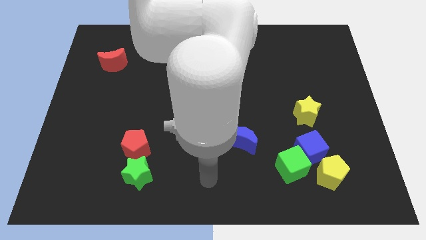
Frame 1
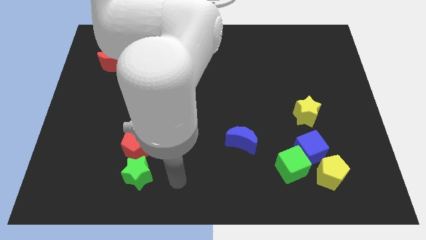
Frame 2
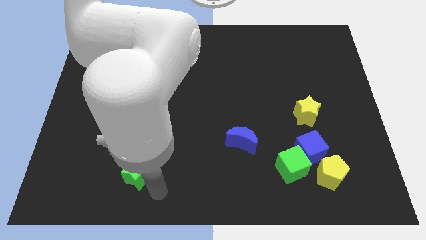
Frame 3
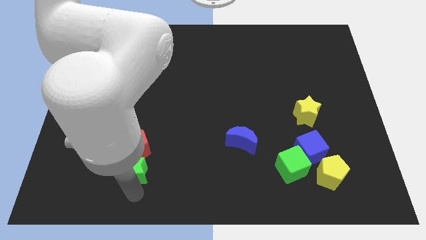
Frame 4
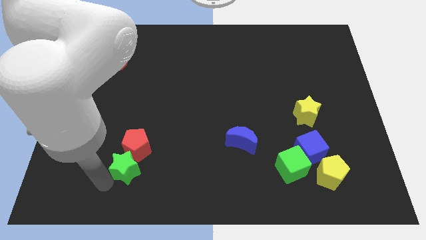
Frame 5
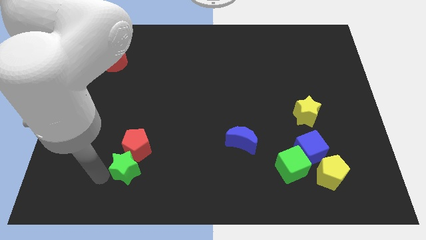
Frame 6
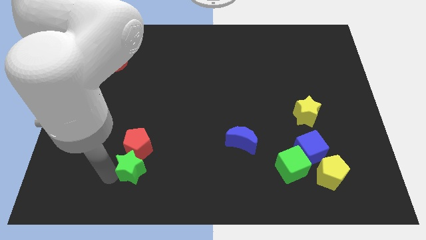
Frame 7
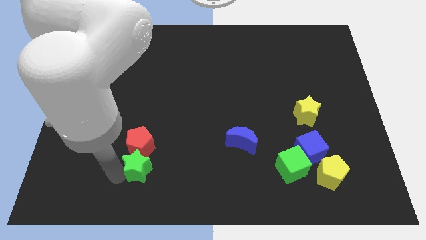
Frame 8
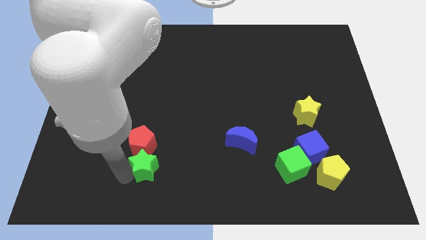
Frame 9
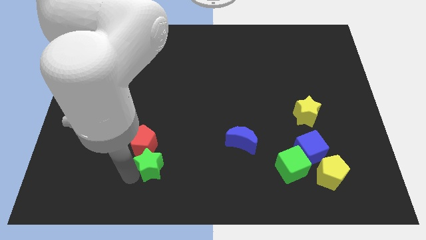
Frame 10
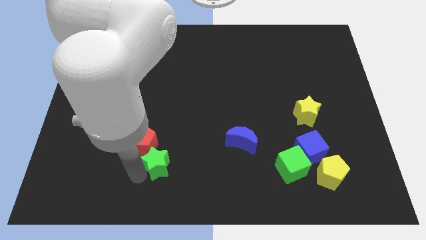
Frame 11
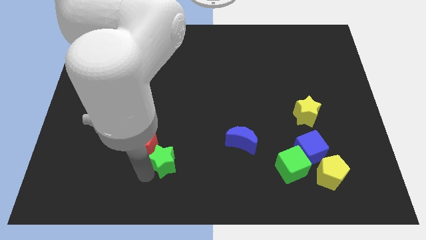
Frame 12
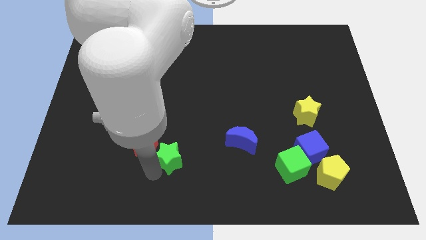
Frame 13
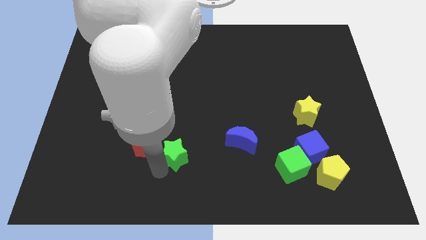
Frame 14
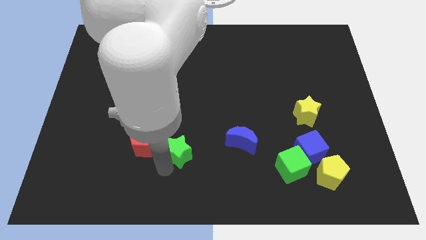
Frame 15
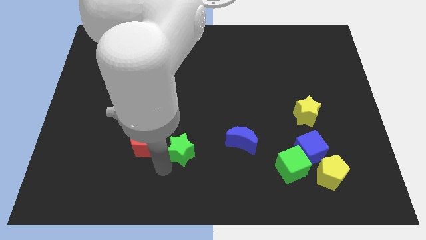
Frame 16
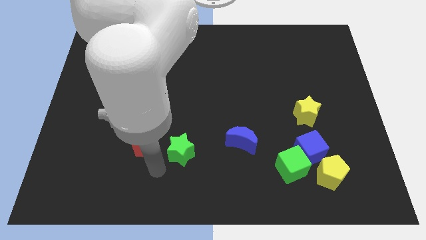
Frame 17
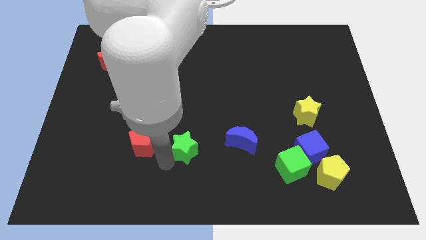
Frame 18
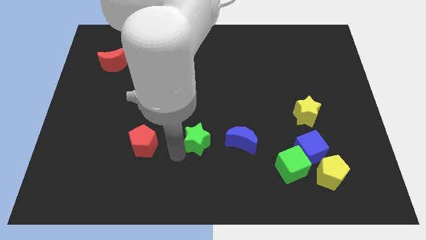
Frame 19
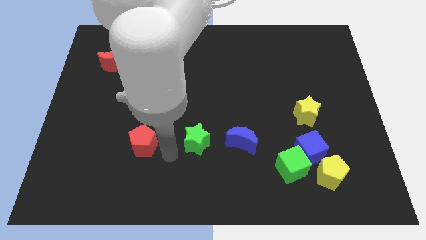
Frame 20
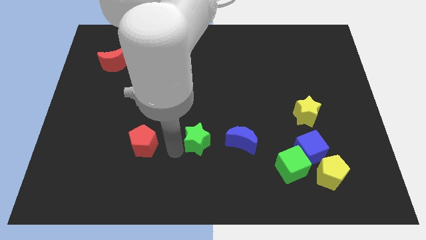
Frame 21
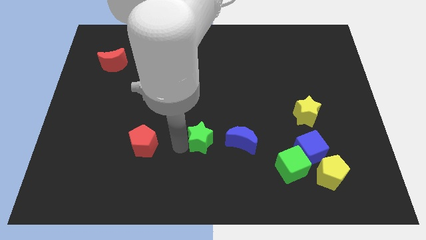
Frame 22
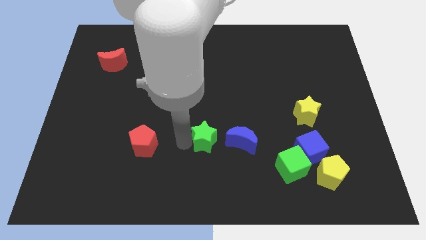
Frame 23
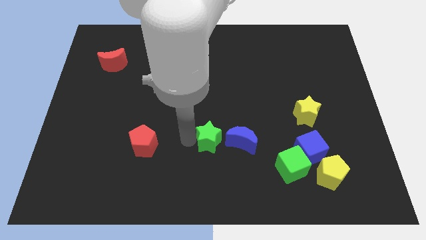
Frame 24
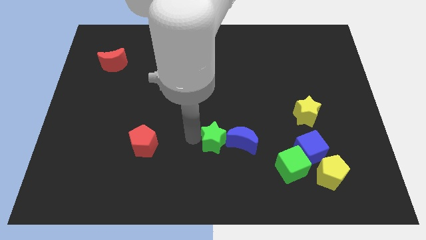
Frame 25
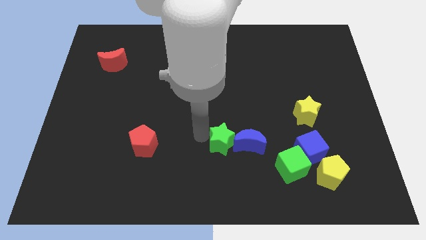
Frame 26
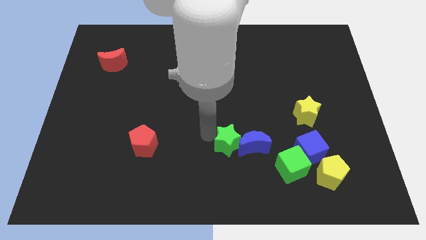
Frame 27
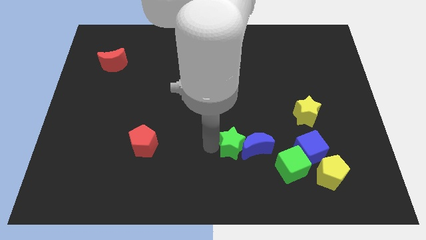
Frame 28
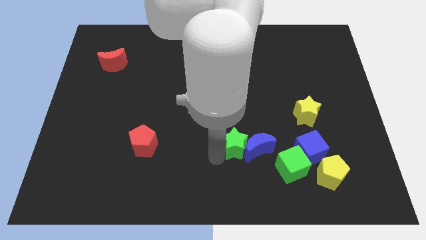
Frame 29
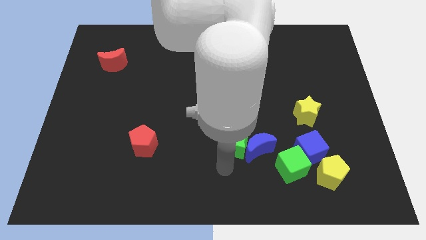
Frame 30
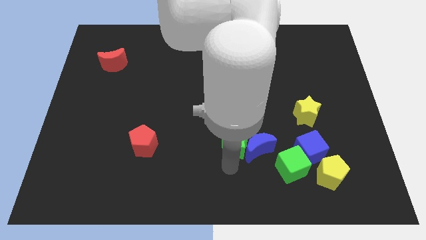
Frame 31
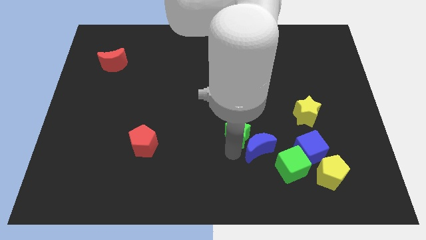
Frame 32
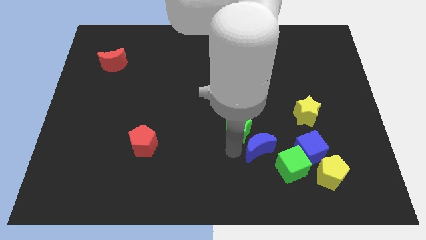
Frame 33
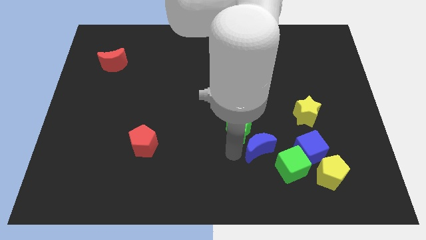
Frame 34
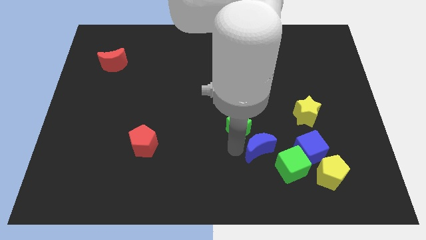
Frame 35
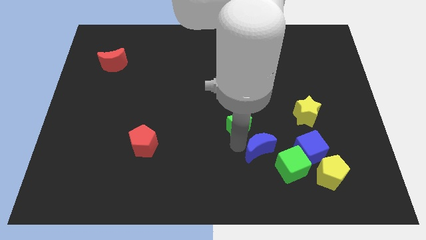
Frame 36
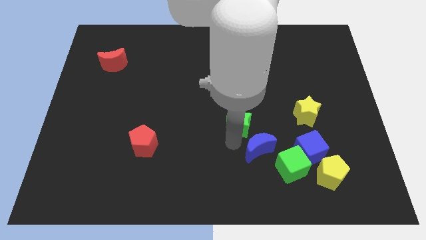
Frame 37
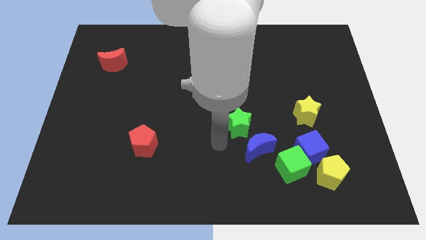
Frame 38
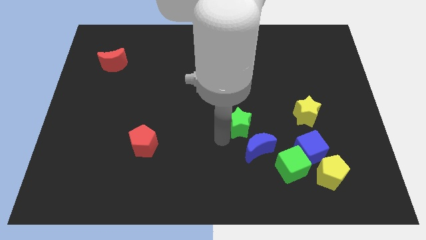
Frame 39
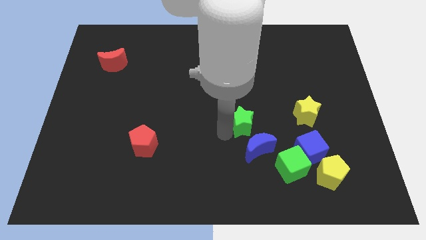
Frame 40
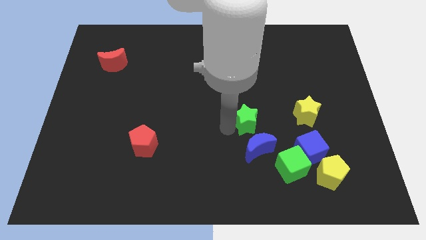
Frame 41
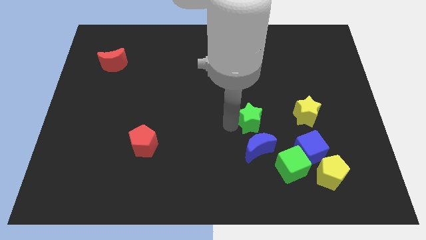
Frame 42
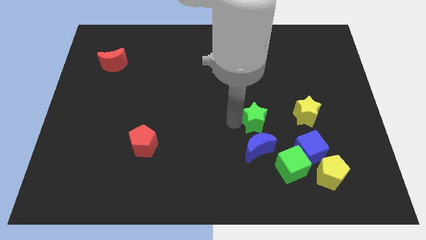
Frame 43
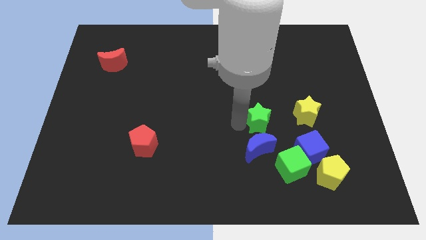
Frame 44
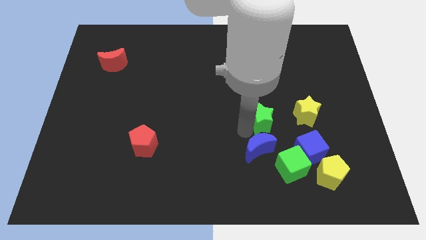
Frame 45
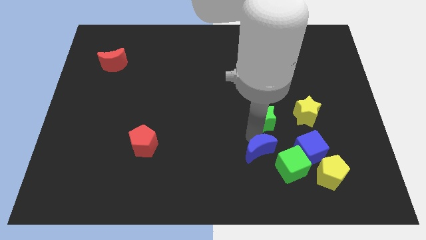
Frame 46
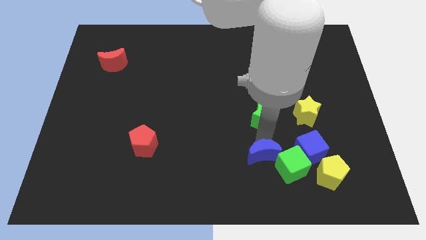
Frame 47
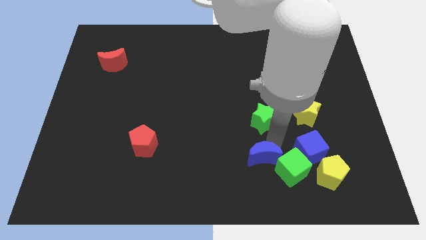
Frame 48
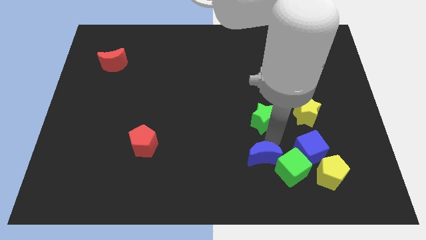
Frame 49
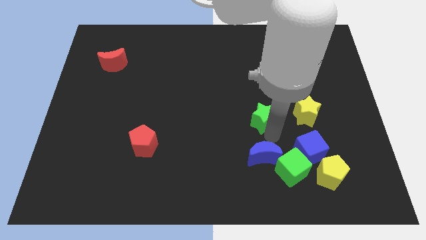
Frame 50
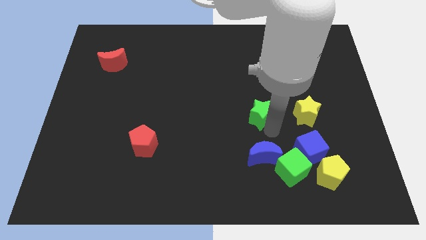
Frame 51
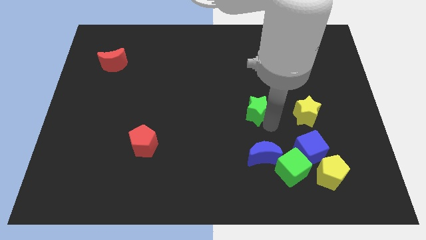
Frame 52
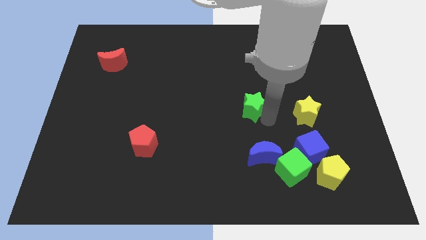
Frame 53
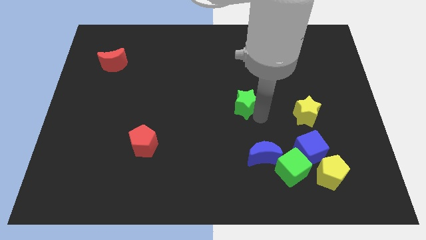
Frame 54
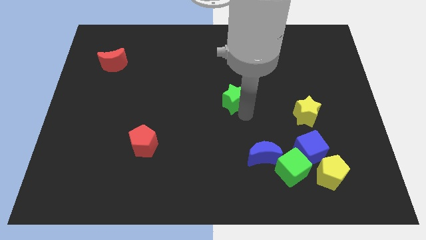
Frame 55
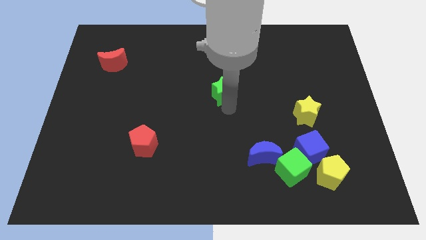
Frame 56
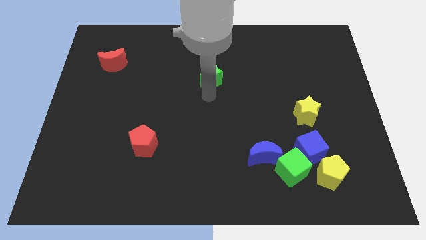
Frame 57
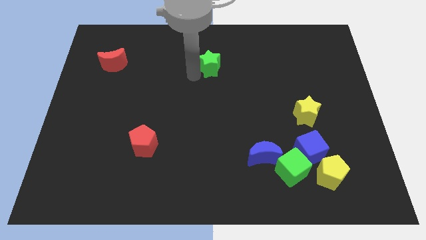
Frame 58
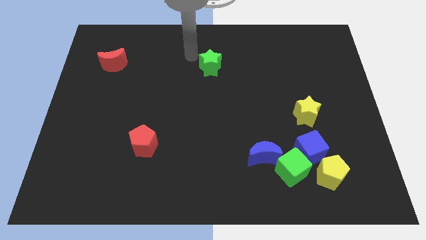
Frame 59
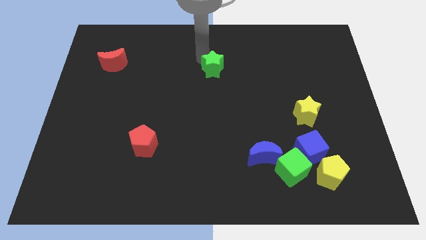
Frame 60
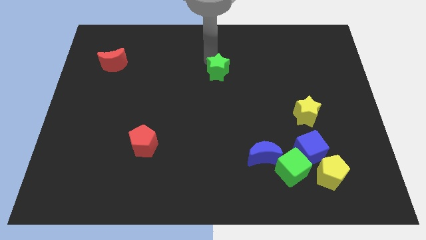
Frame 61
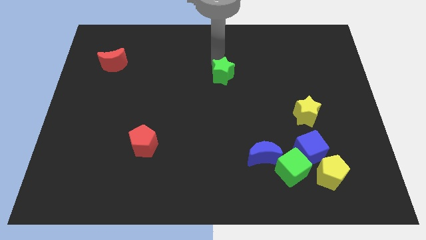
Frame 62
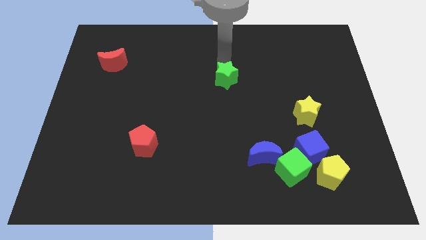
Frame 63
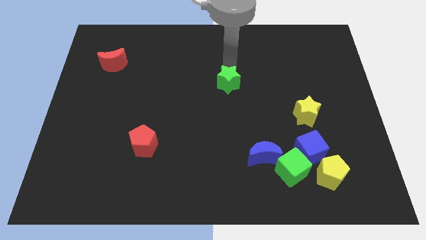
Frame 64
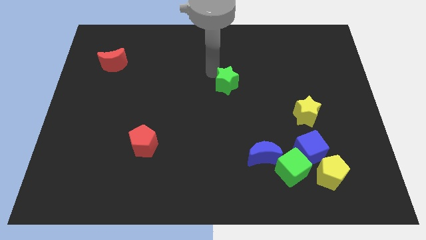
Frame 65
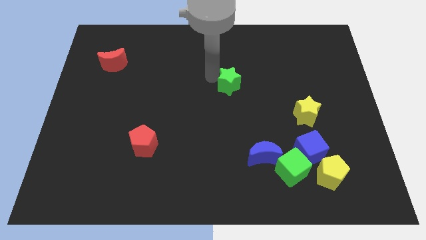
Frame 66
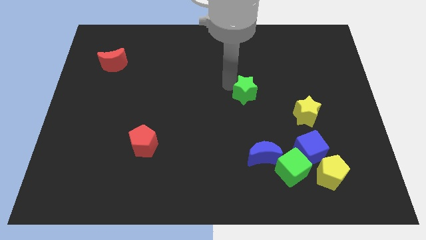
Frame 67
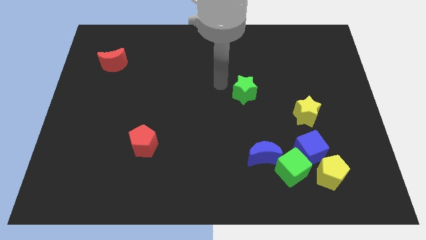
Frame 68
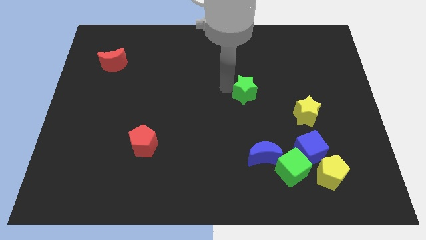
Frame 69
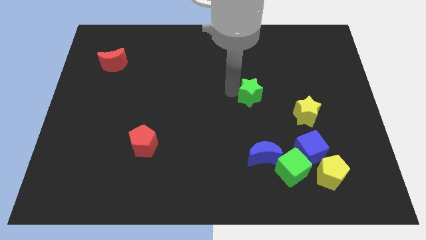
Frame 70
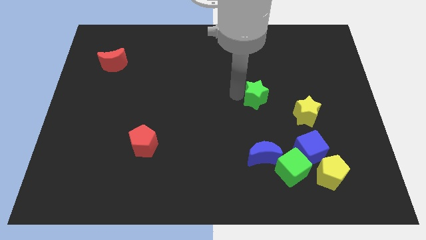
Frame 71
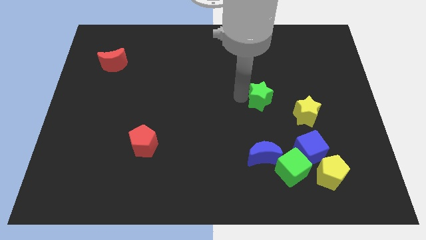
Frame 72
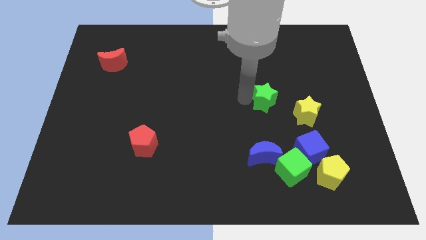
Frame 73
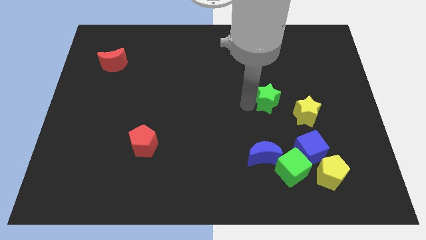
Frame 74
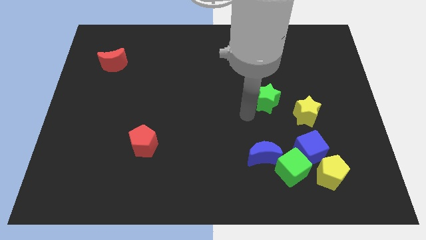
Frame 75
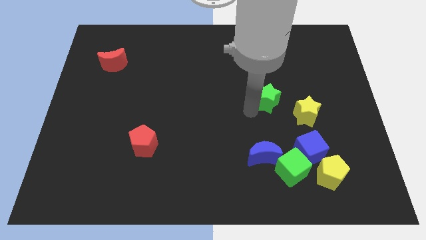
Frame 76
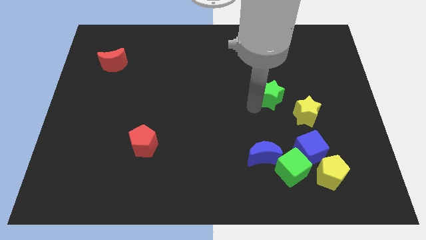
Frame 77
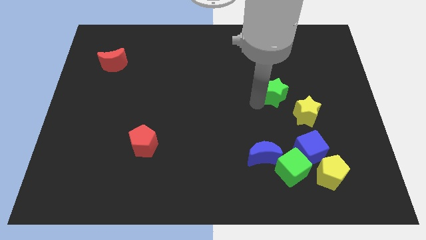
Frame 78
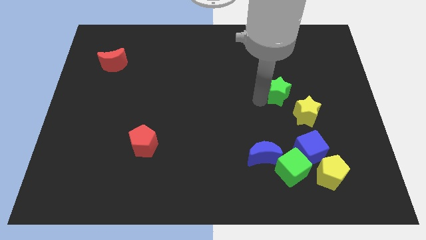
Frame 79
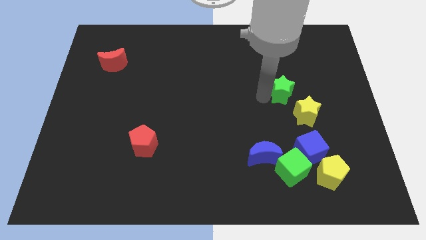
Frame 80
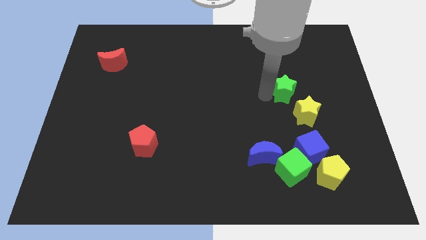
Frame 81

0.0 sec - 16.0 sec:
put the green star to the top of the yellow star

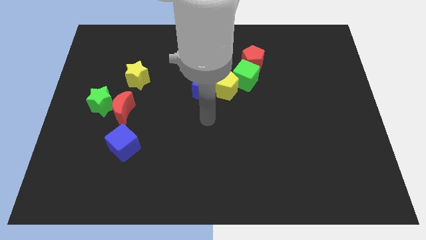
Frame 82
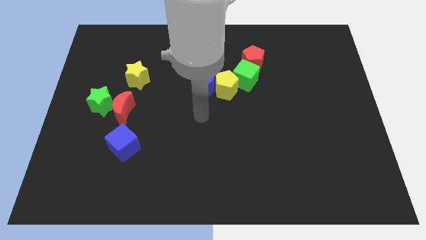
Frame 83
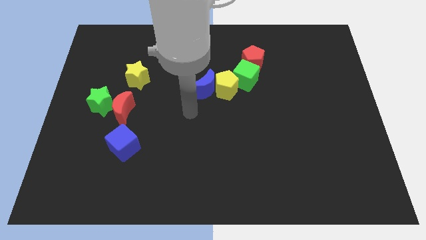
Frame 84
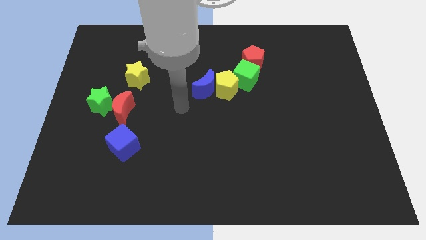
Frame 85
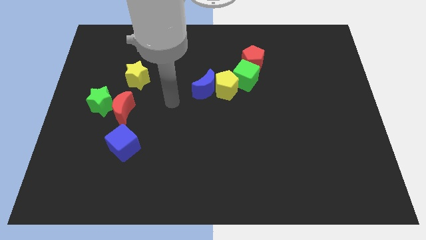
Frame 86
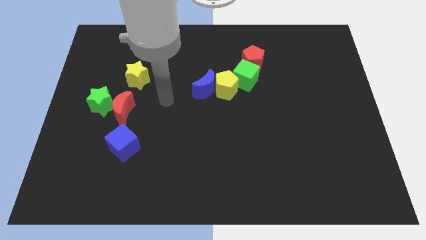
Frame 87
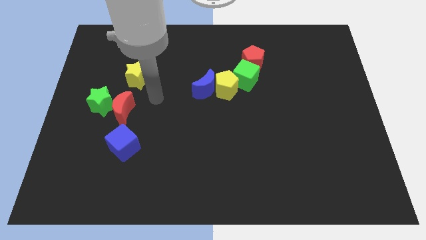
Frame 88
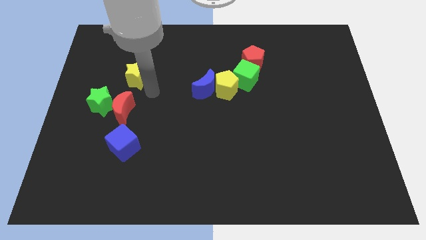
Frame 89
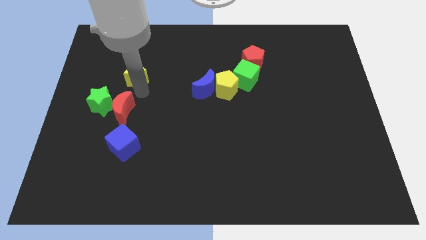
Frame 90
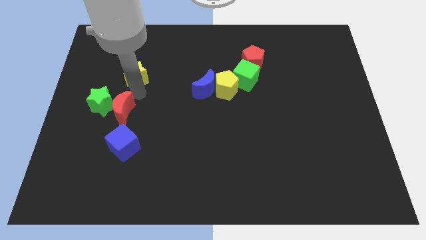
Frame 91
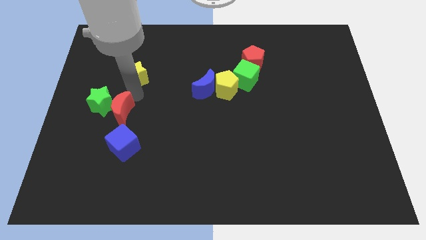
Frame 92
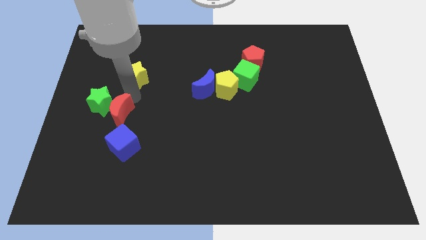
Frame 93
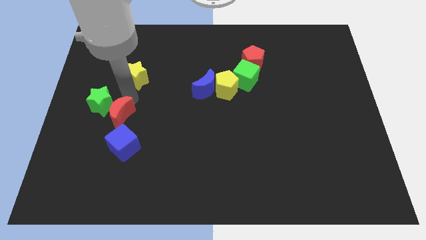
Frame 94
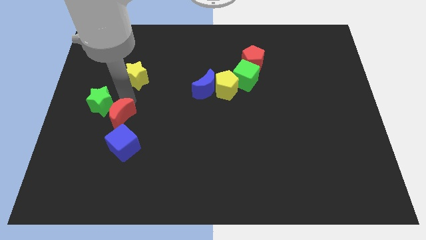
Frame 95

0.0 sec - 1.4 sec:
push the red moon to the bottom side of the green star
